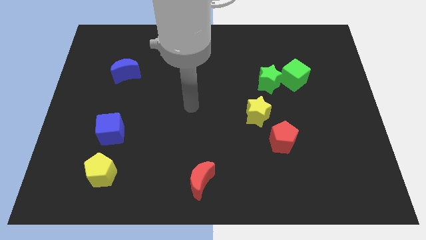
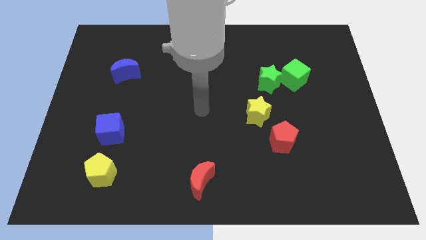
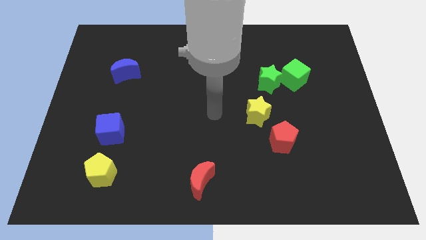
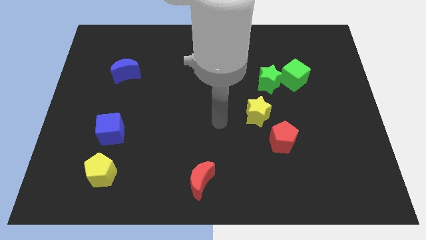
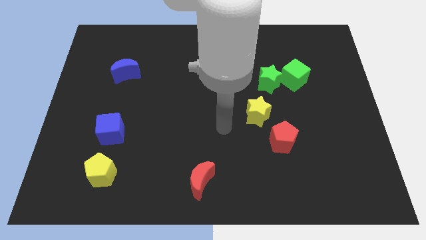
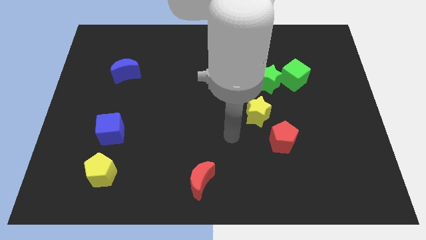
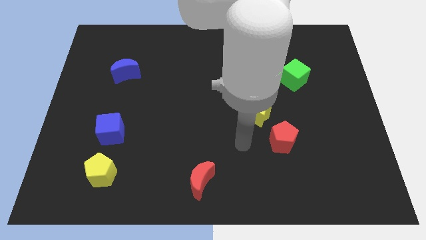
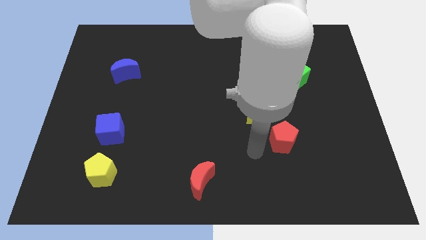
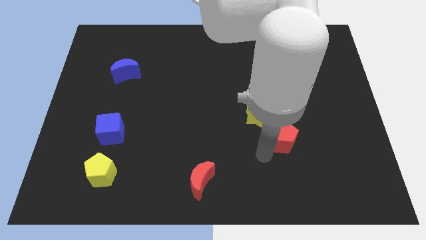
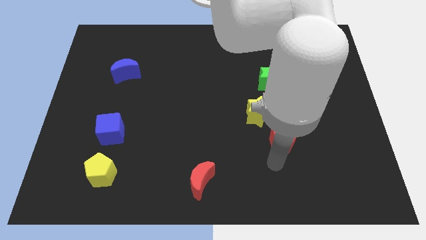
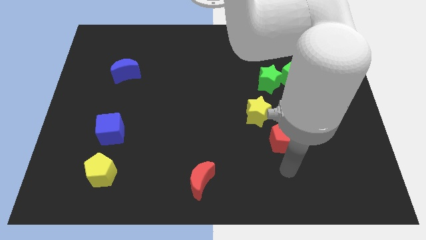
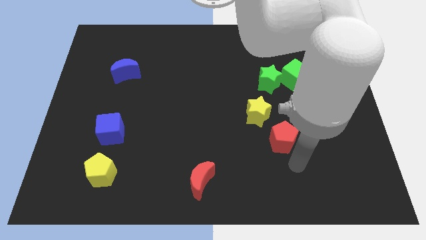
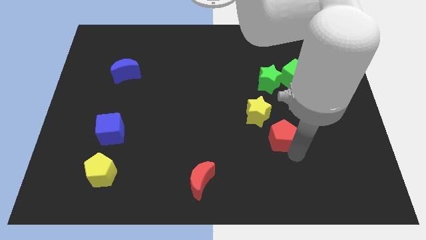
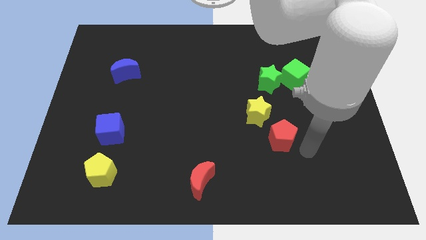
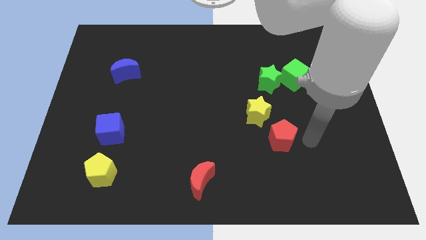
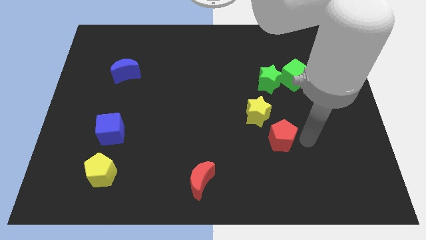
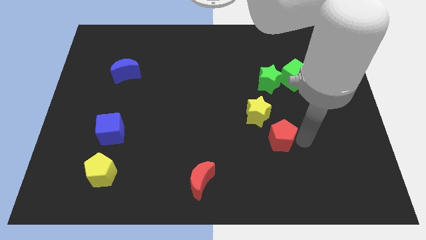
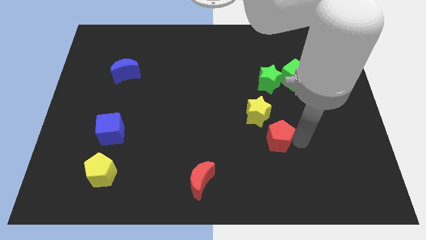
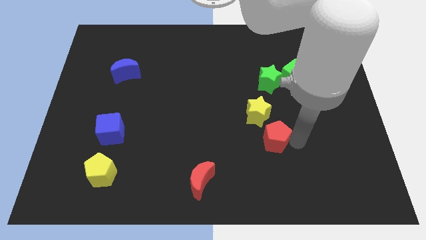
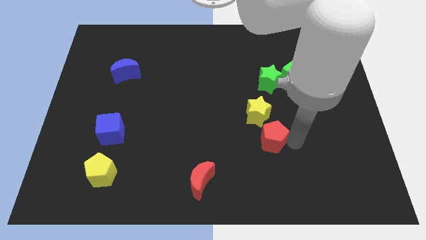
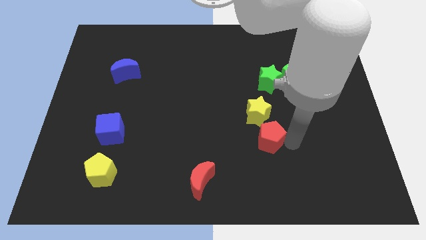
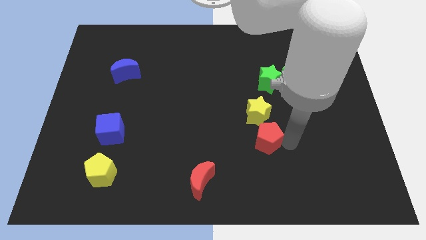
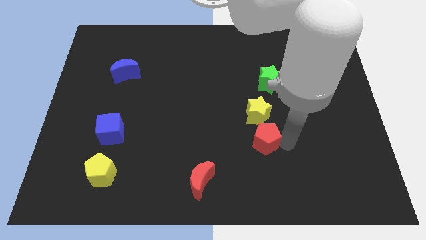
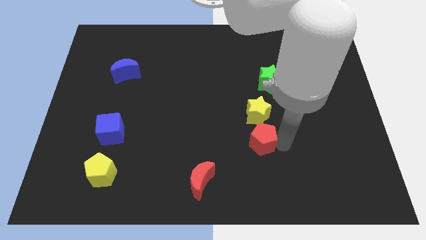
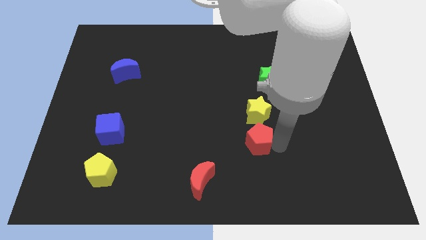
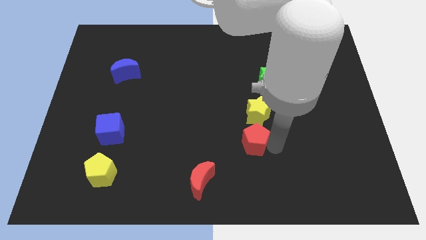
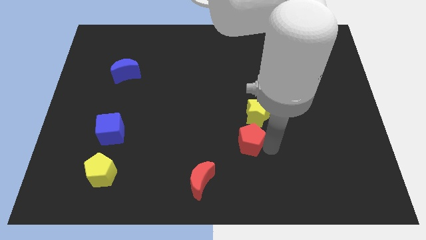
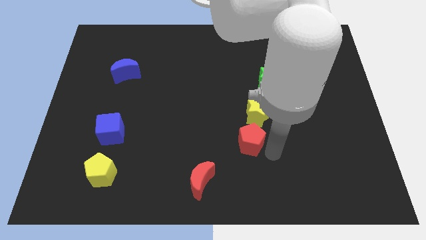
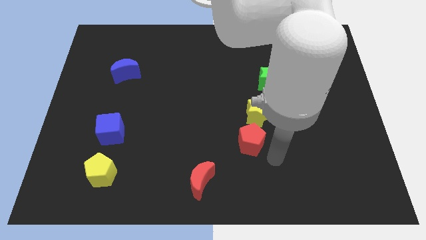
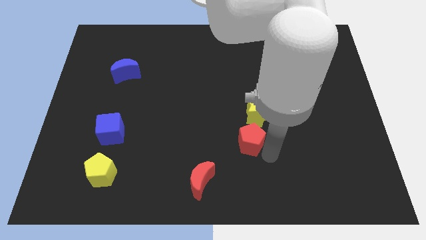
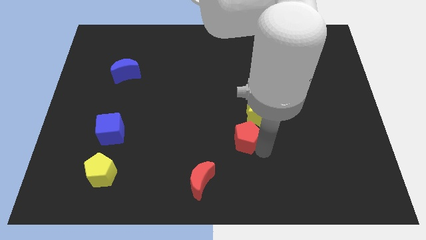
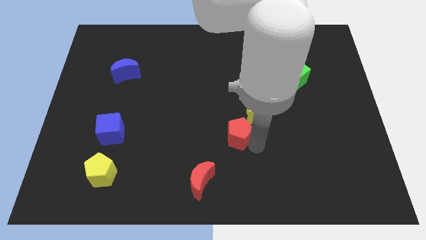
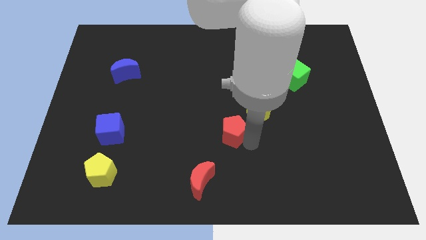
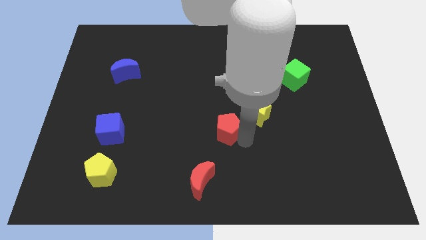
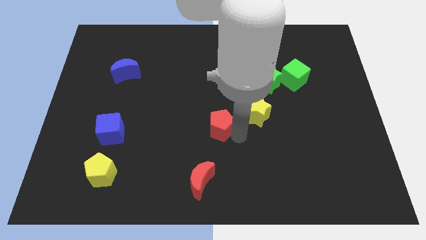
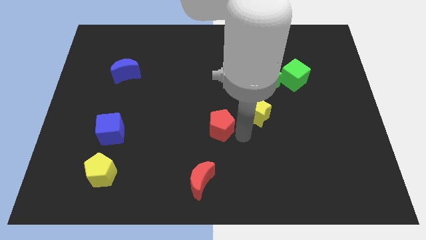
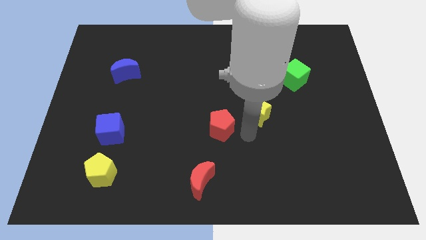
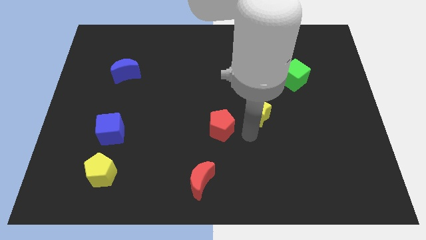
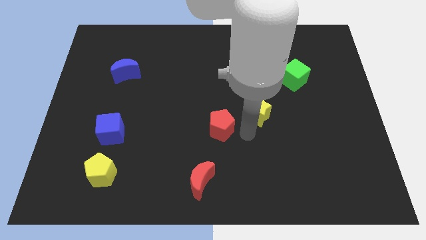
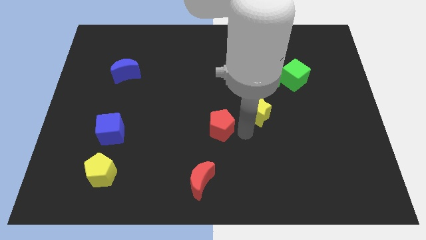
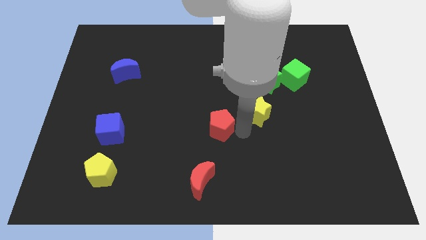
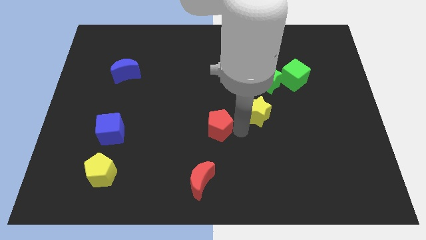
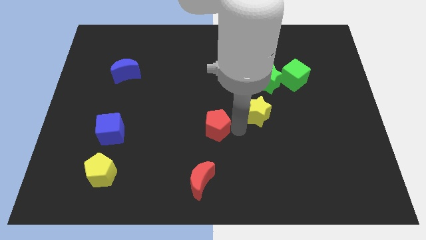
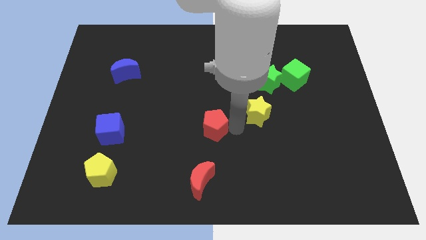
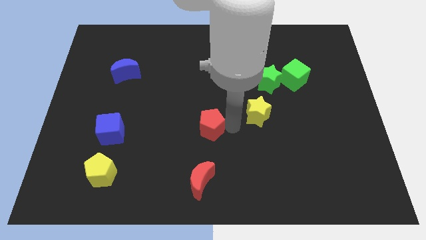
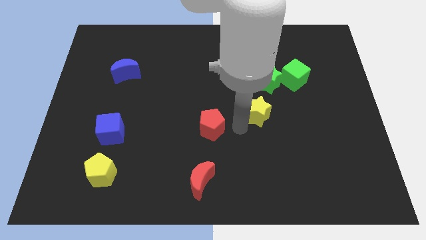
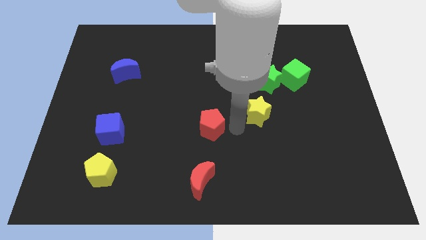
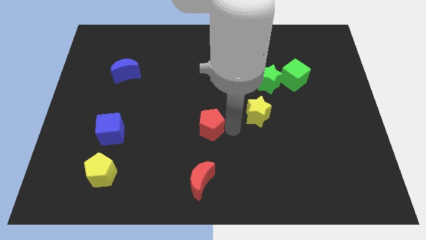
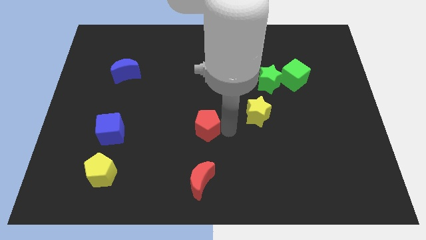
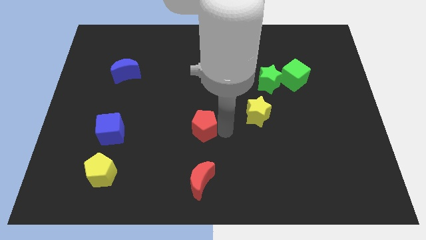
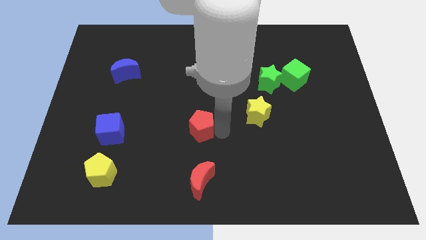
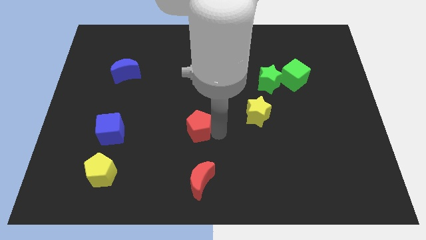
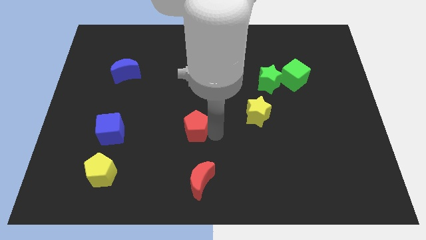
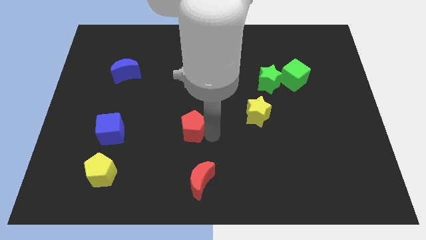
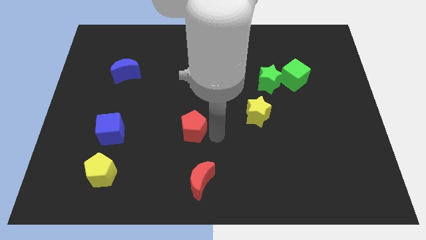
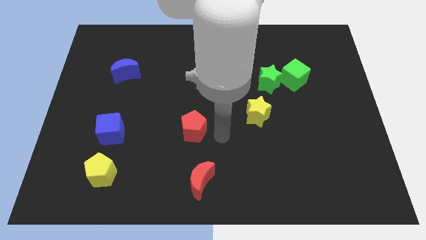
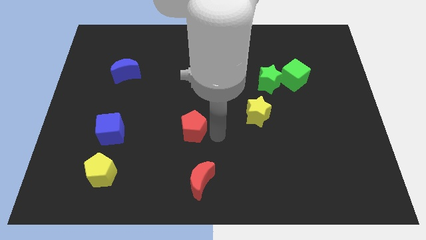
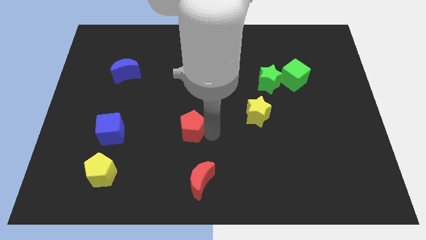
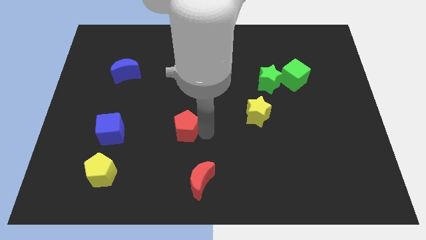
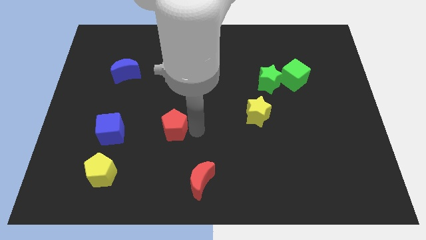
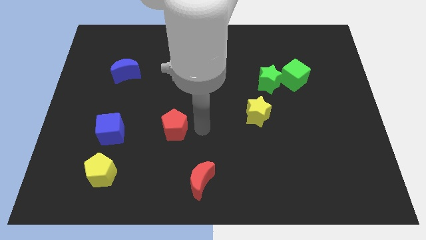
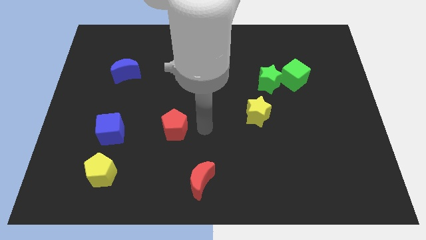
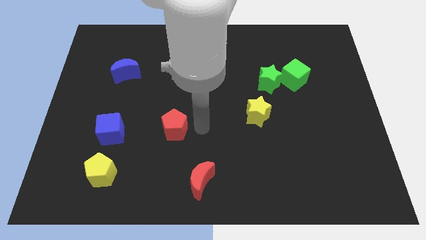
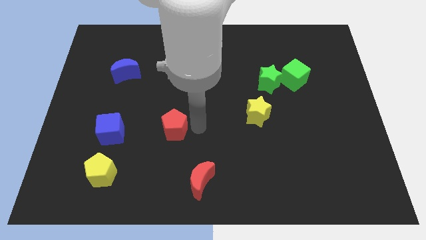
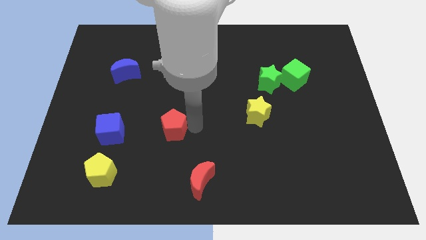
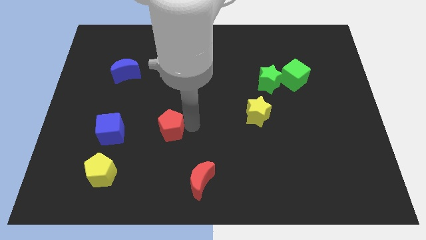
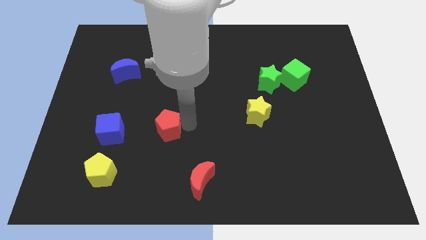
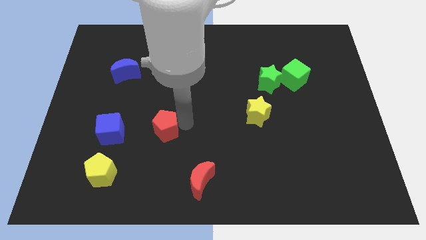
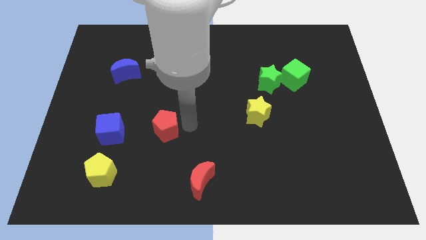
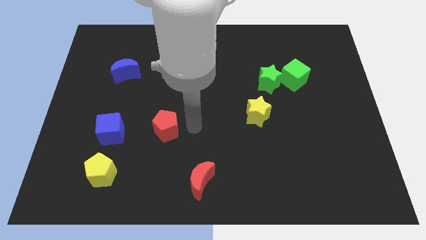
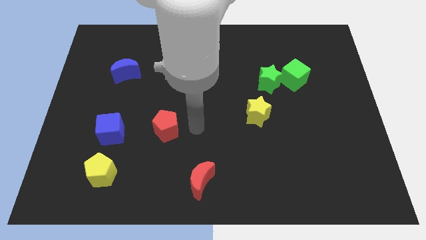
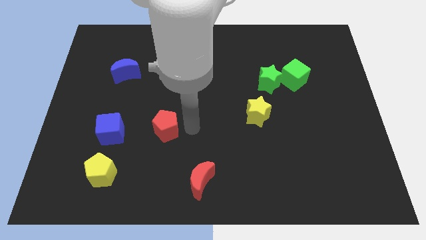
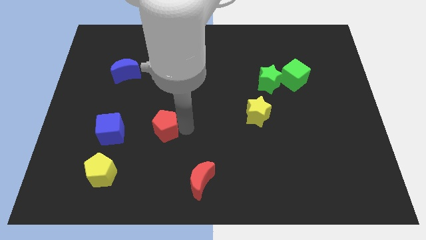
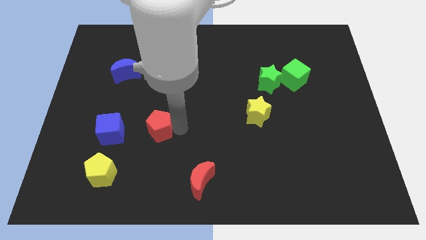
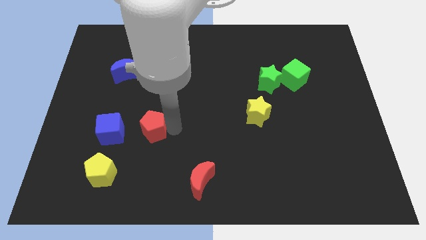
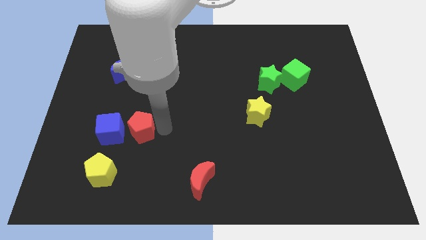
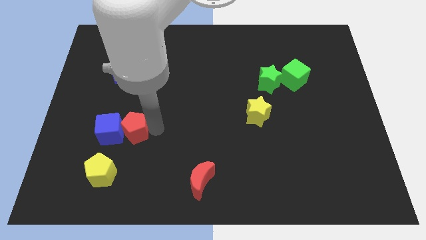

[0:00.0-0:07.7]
put the red pentagon next to the blue cube
